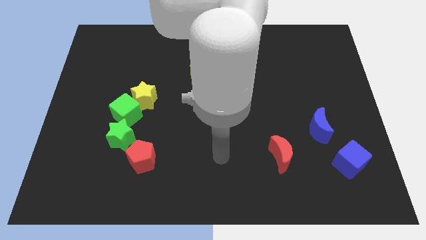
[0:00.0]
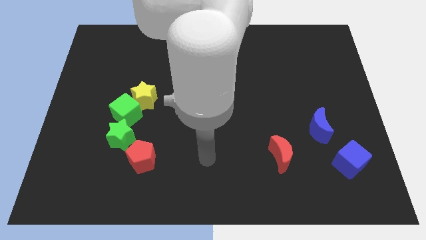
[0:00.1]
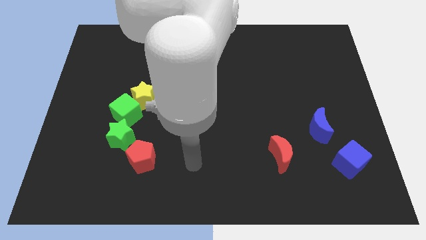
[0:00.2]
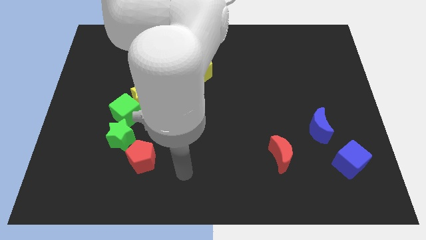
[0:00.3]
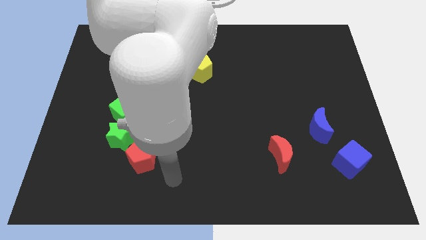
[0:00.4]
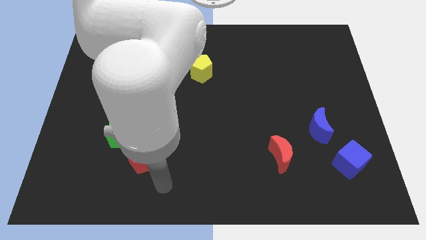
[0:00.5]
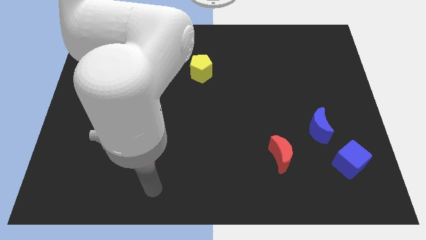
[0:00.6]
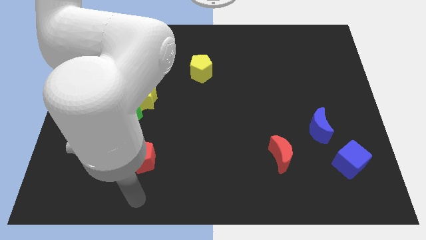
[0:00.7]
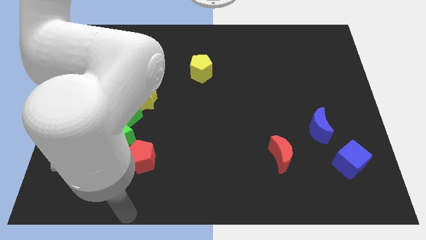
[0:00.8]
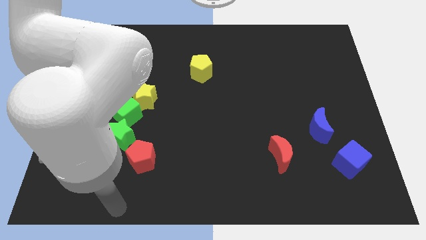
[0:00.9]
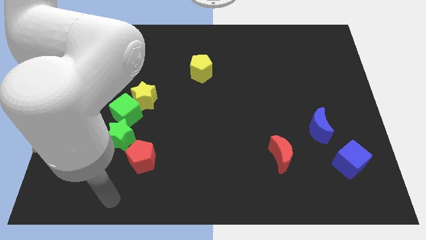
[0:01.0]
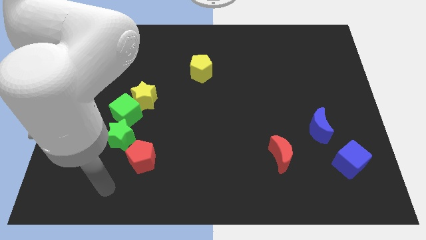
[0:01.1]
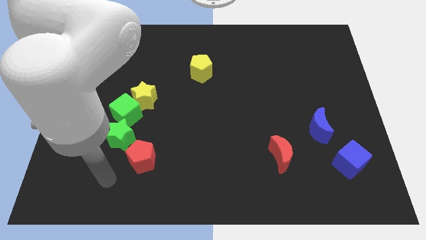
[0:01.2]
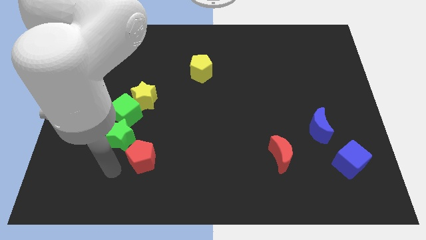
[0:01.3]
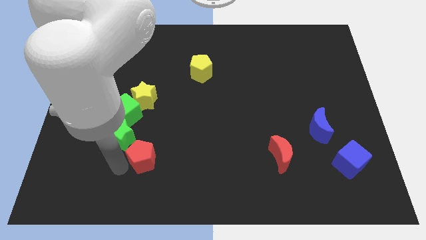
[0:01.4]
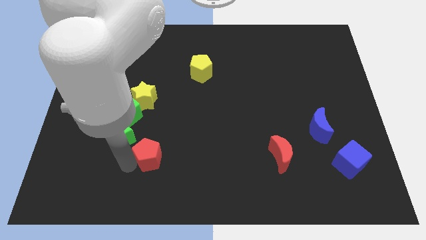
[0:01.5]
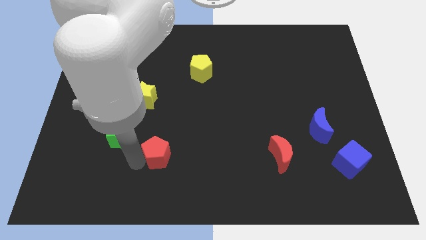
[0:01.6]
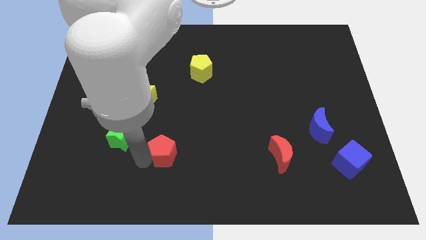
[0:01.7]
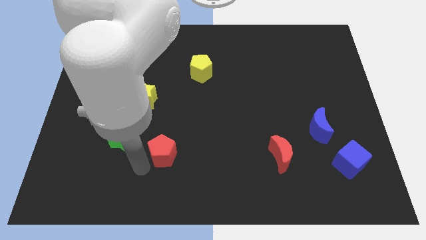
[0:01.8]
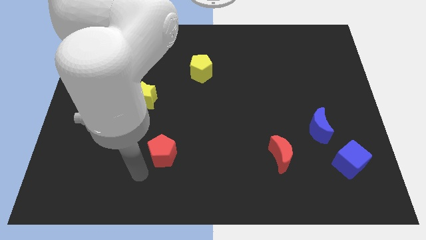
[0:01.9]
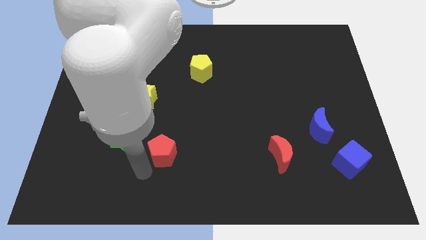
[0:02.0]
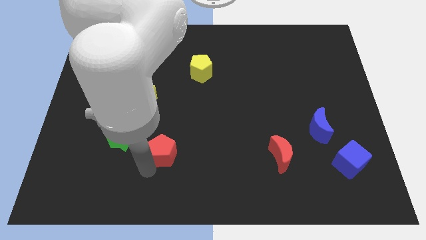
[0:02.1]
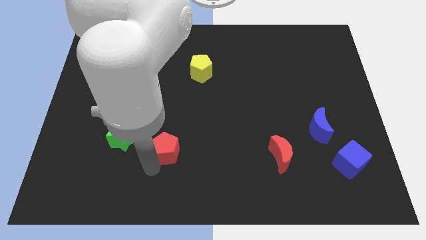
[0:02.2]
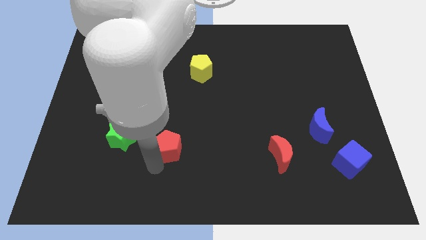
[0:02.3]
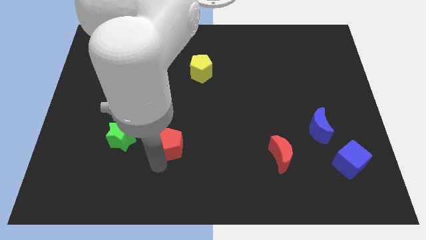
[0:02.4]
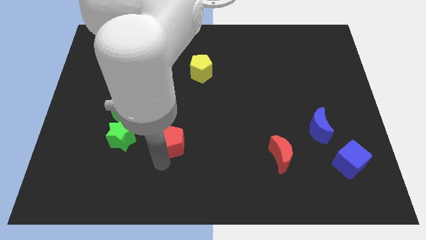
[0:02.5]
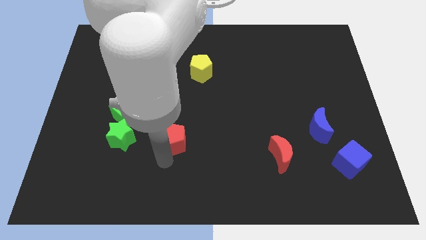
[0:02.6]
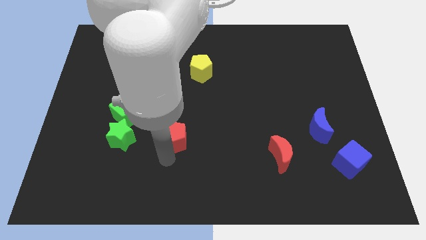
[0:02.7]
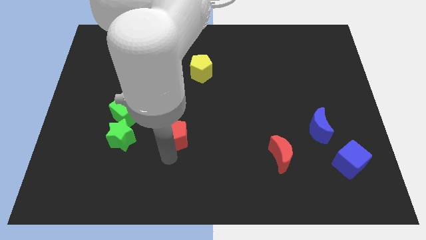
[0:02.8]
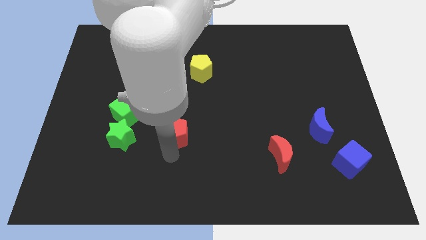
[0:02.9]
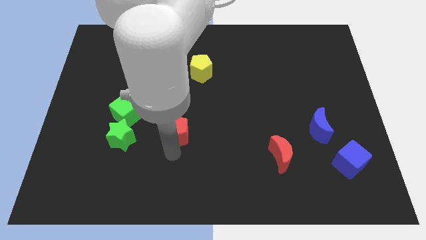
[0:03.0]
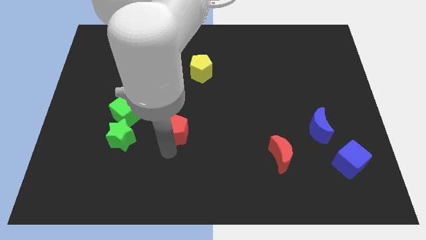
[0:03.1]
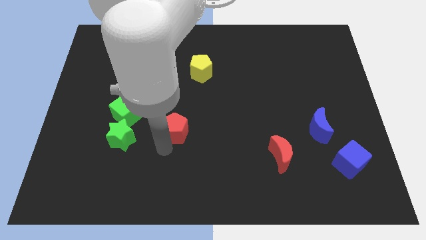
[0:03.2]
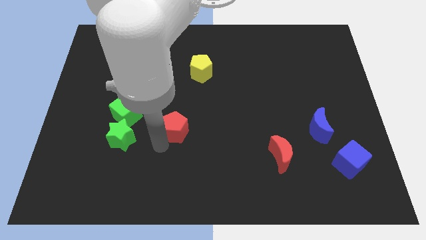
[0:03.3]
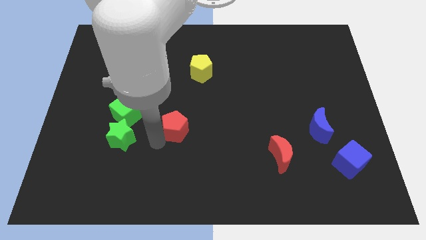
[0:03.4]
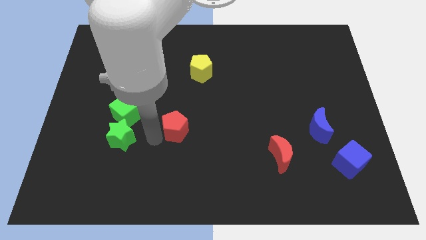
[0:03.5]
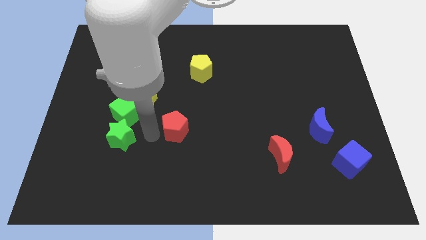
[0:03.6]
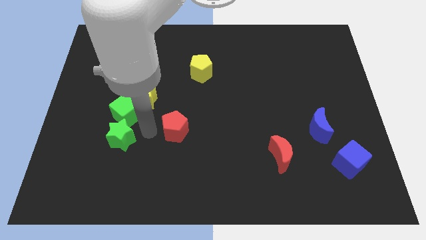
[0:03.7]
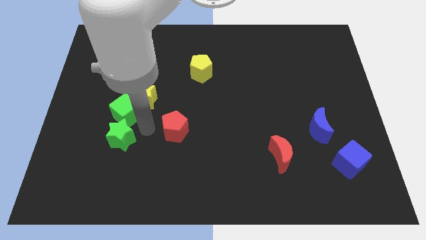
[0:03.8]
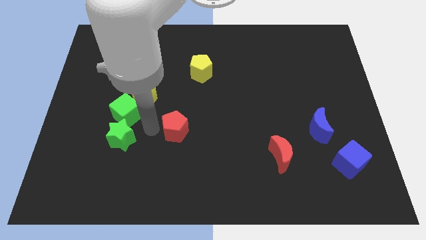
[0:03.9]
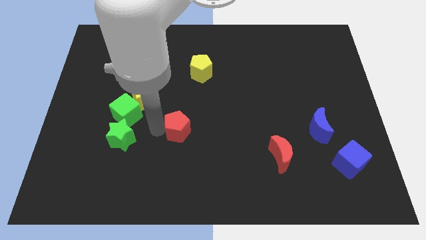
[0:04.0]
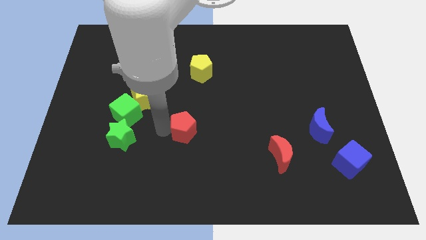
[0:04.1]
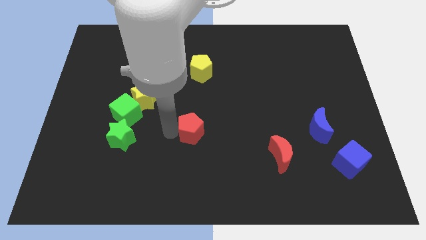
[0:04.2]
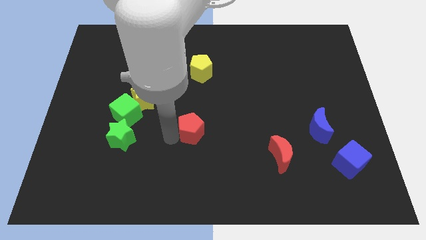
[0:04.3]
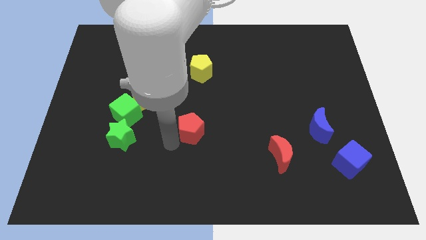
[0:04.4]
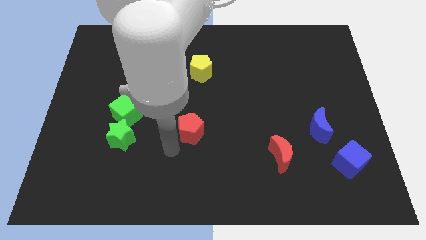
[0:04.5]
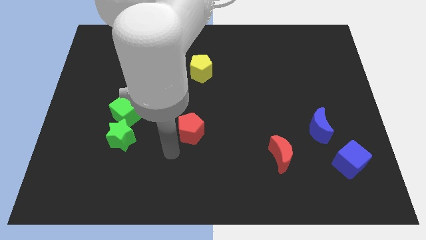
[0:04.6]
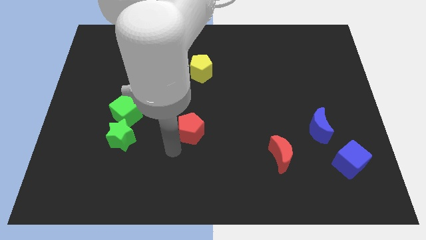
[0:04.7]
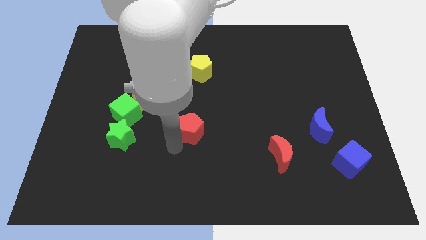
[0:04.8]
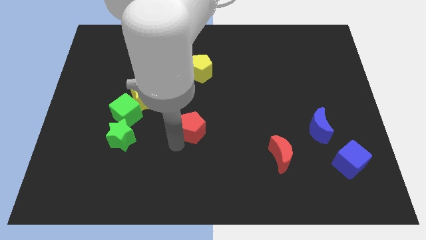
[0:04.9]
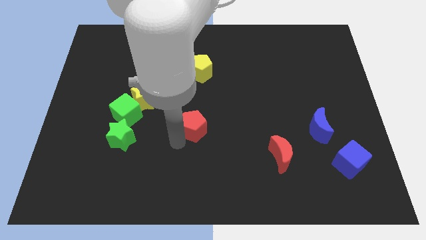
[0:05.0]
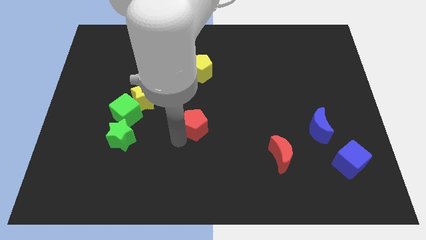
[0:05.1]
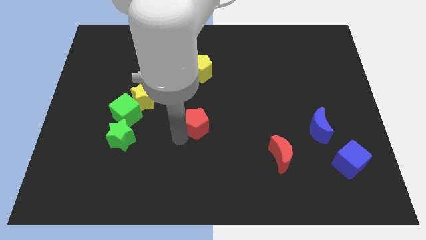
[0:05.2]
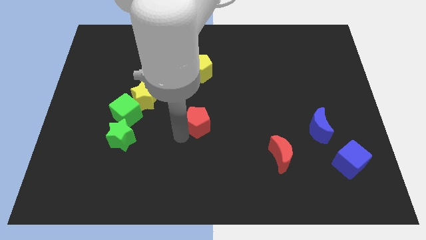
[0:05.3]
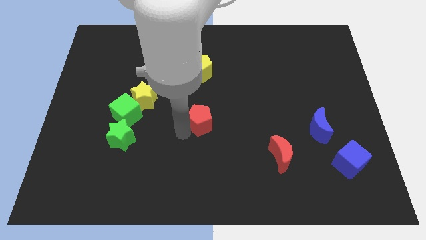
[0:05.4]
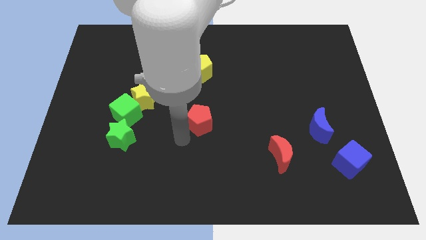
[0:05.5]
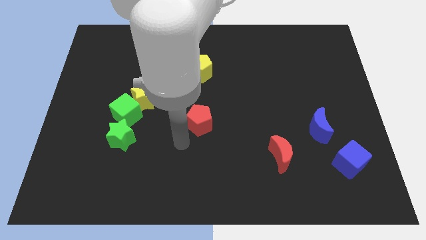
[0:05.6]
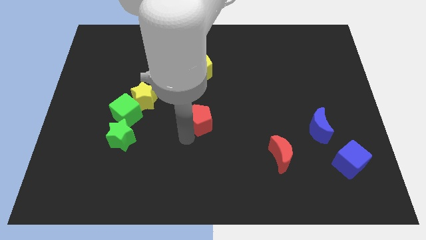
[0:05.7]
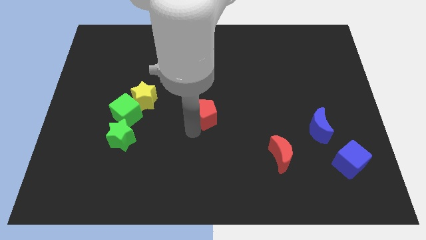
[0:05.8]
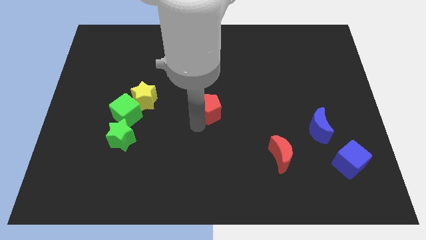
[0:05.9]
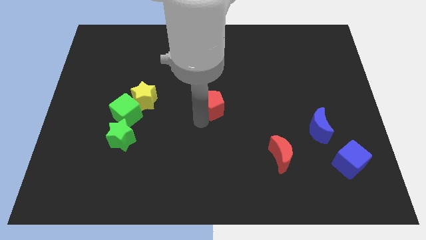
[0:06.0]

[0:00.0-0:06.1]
slide the red pentagon diagonally upwards and to the right

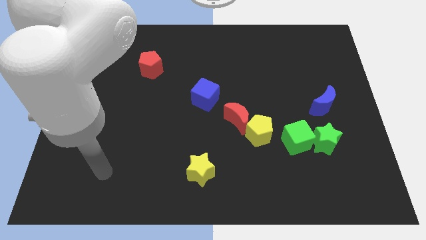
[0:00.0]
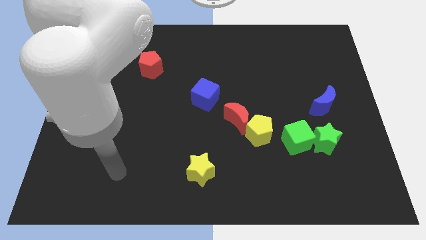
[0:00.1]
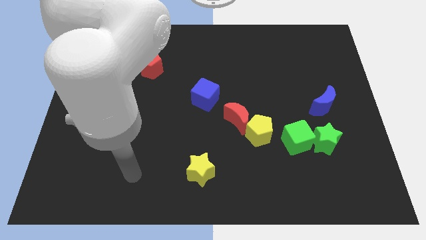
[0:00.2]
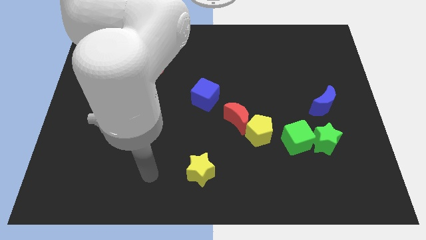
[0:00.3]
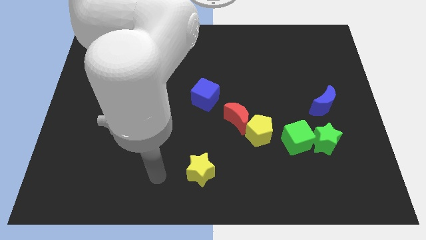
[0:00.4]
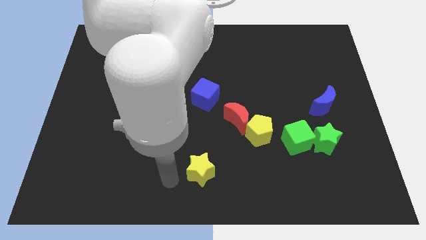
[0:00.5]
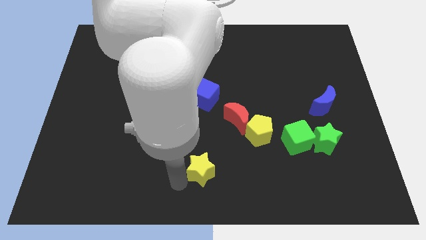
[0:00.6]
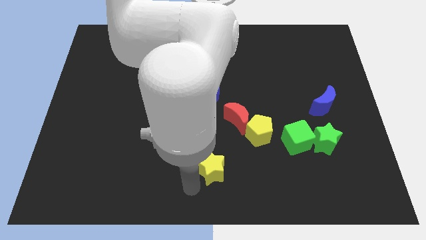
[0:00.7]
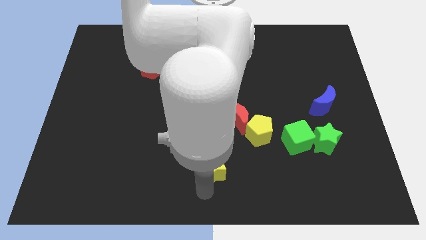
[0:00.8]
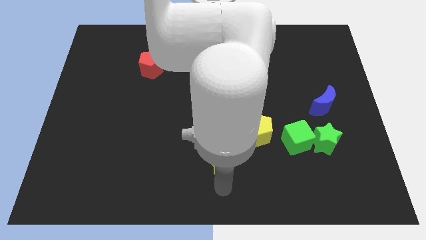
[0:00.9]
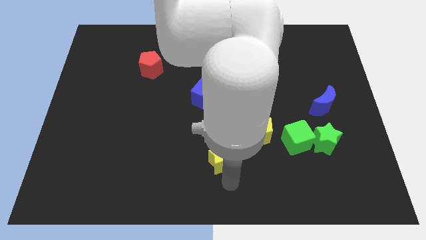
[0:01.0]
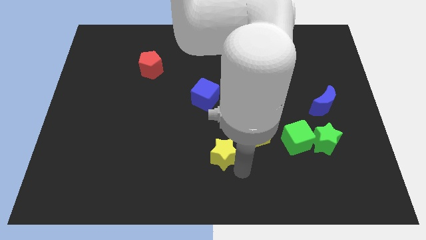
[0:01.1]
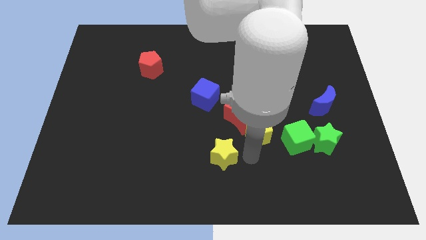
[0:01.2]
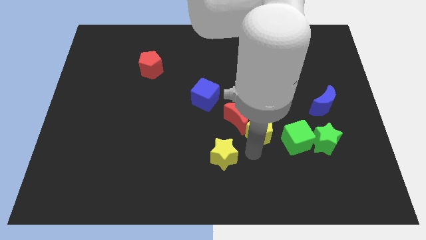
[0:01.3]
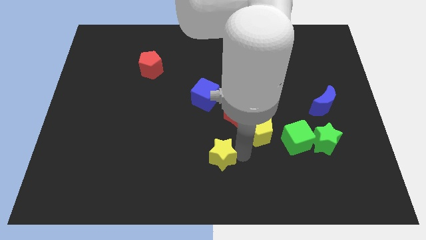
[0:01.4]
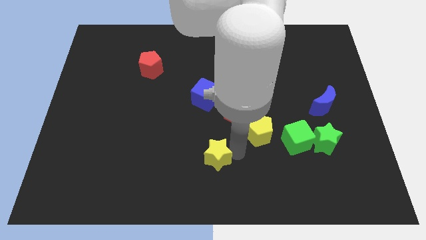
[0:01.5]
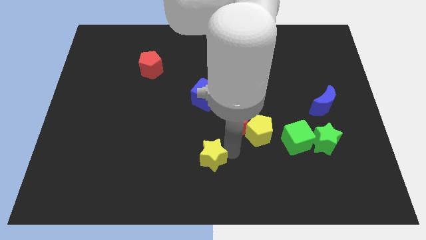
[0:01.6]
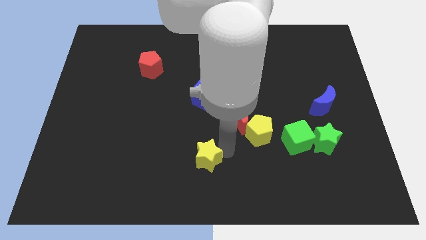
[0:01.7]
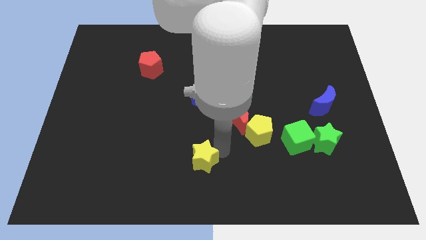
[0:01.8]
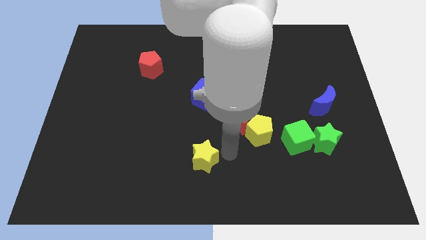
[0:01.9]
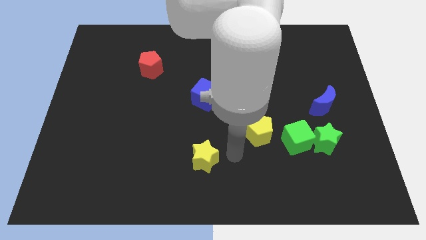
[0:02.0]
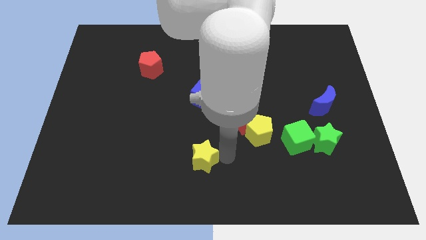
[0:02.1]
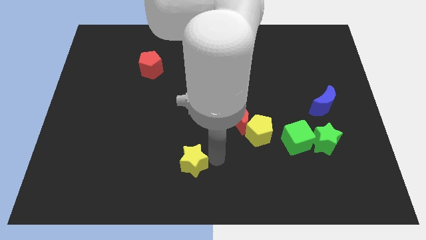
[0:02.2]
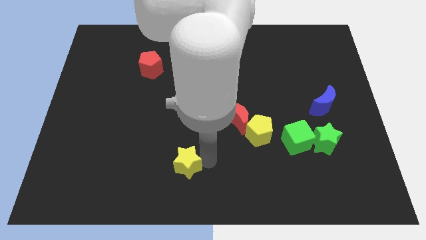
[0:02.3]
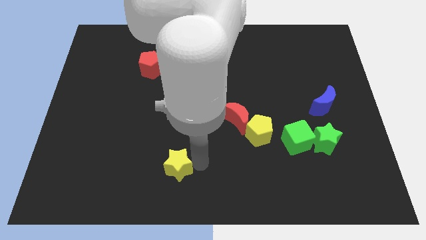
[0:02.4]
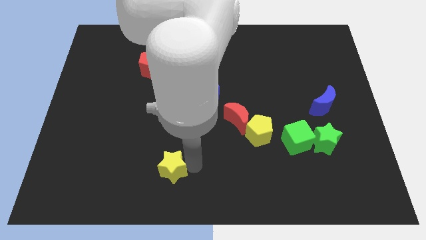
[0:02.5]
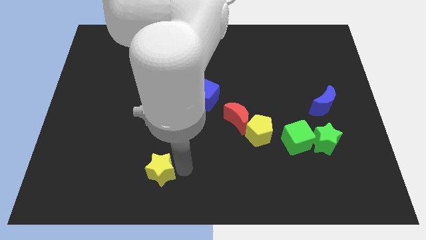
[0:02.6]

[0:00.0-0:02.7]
push the yellow star to the left slightly
